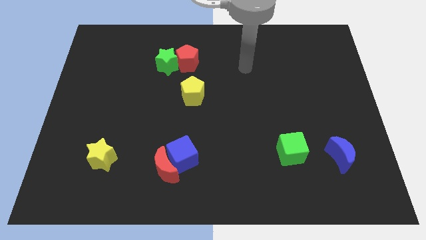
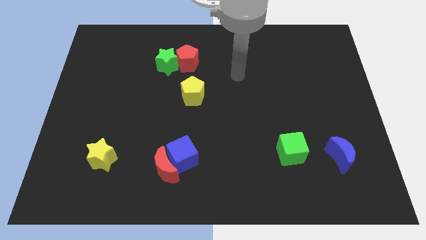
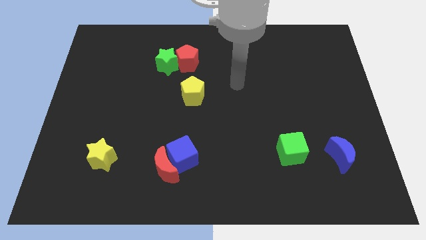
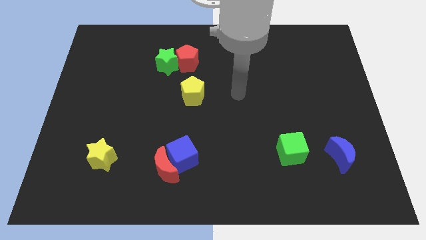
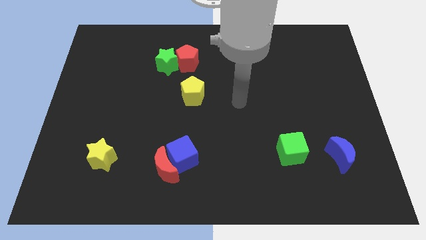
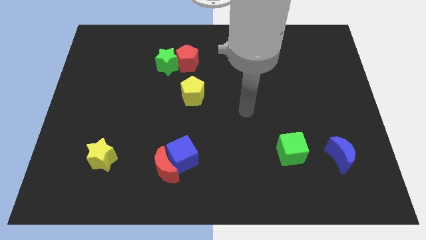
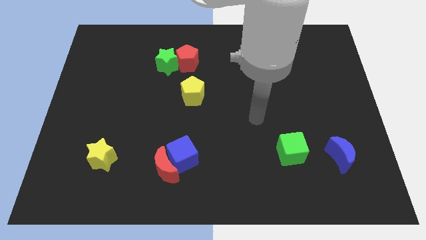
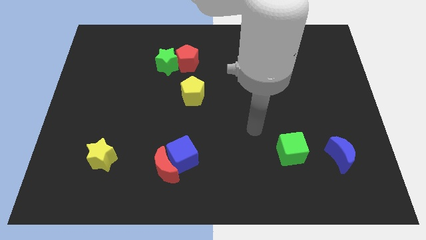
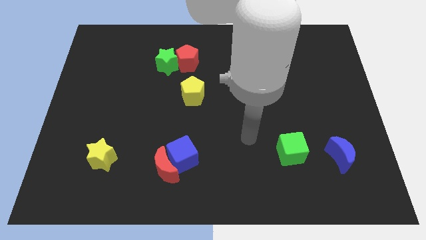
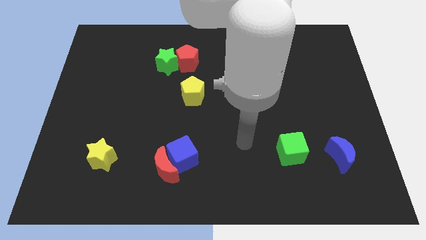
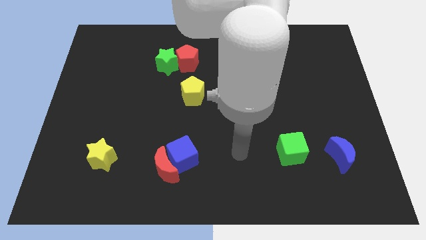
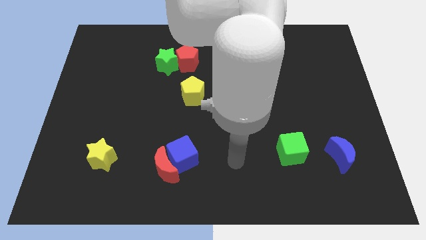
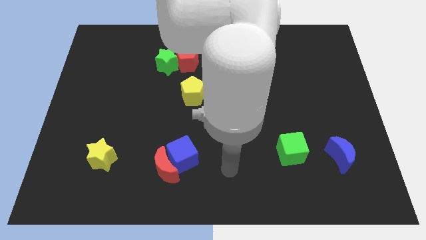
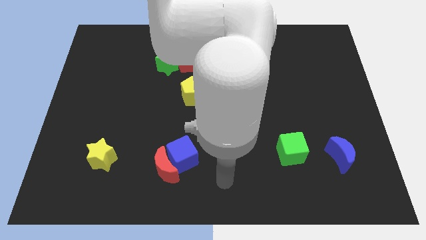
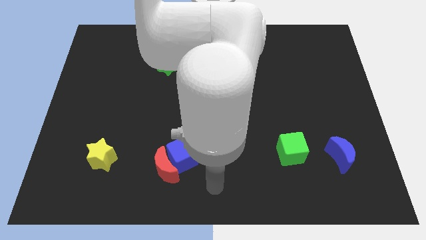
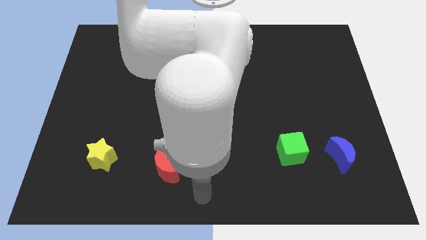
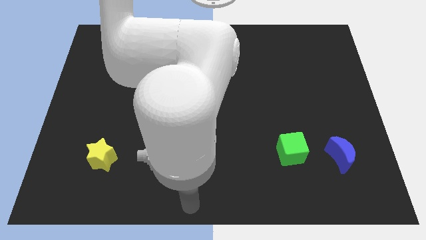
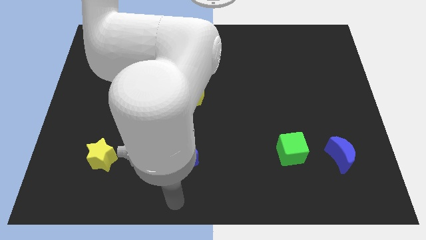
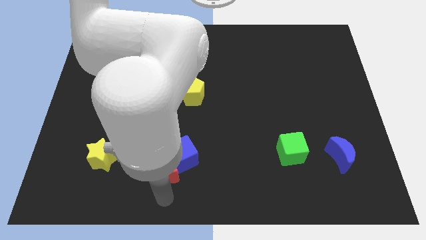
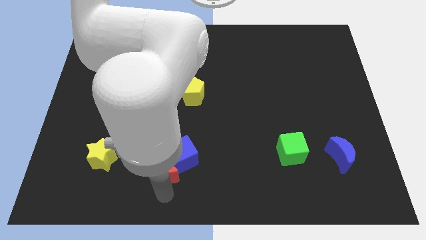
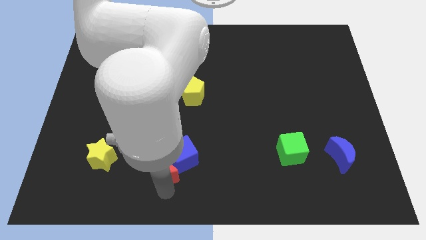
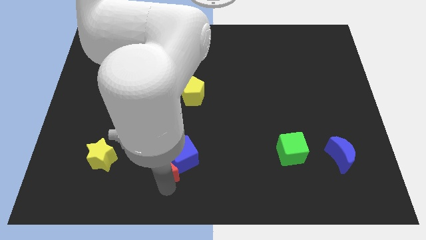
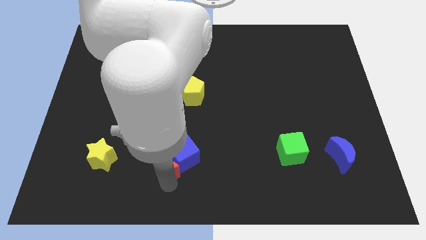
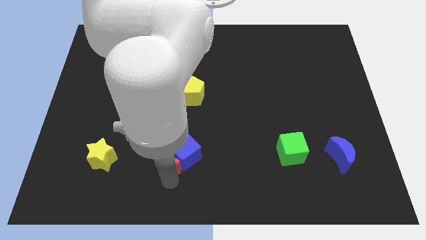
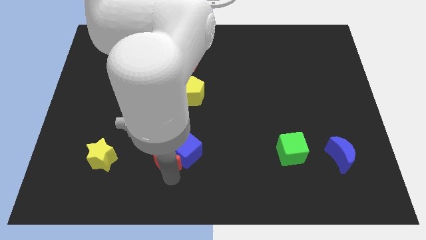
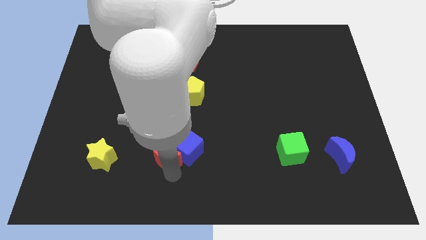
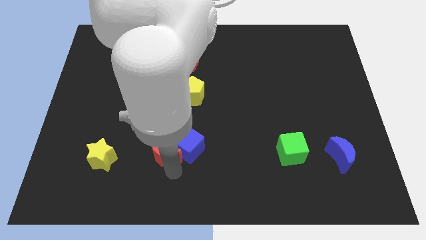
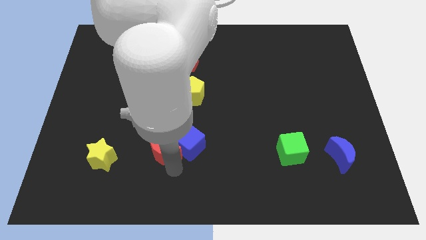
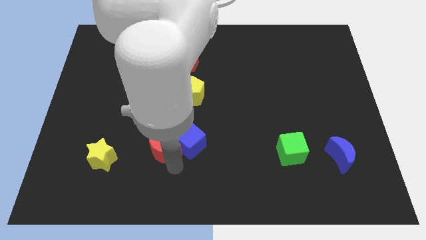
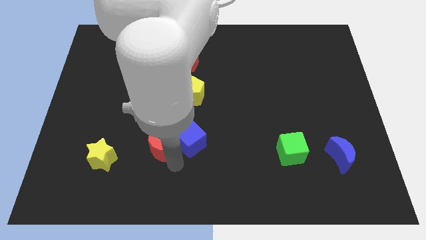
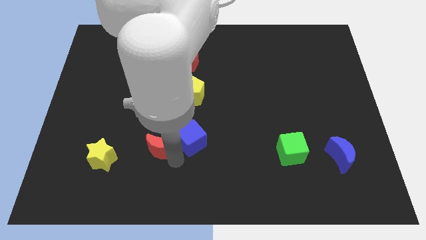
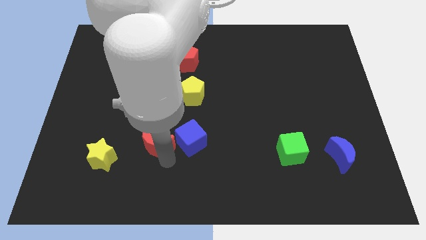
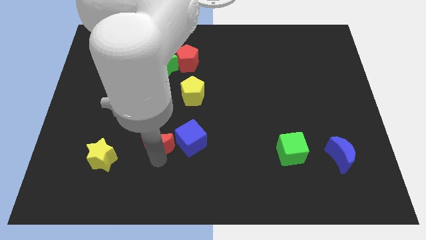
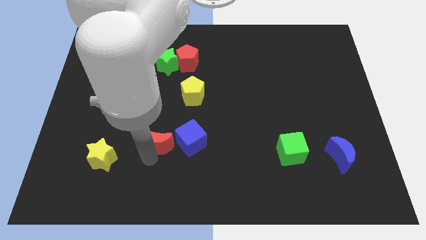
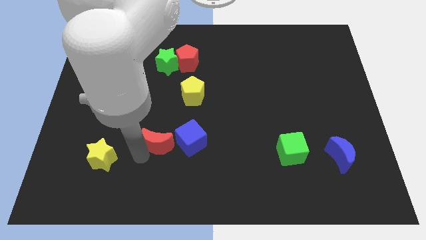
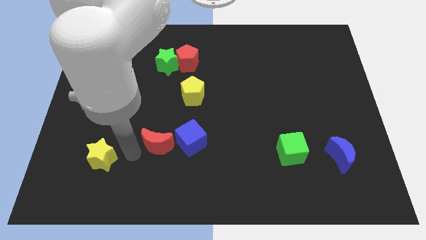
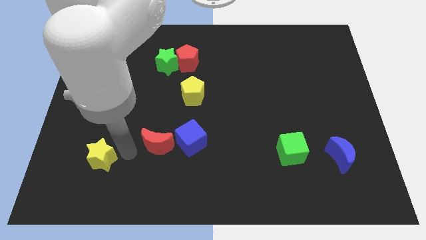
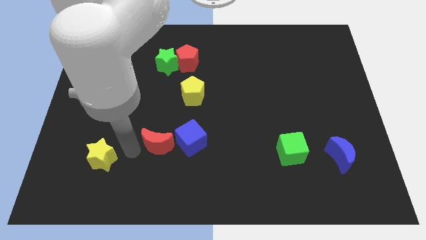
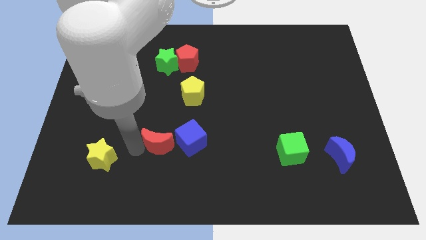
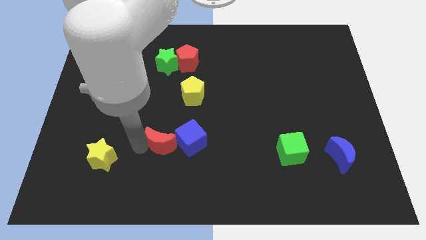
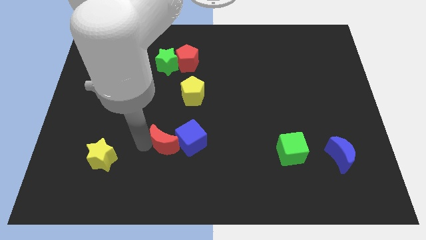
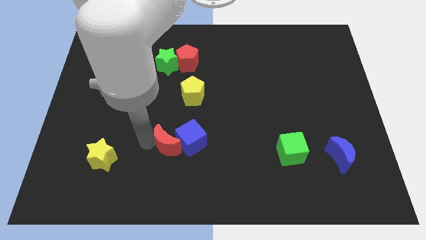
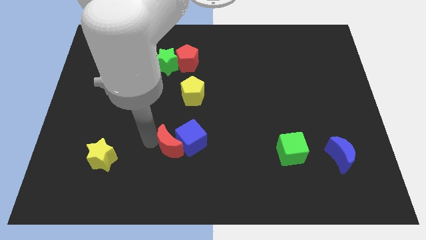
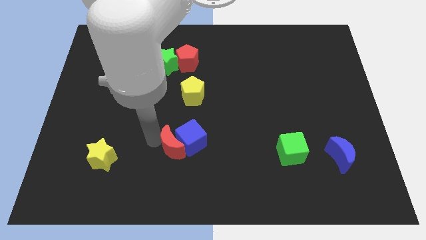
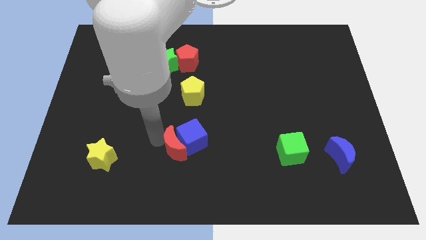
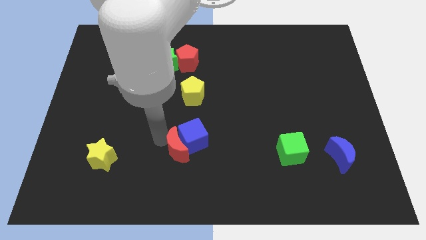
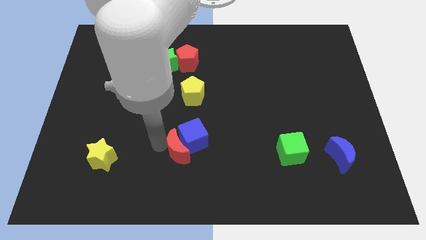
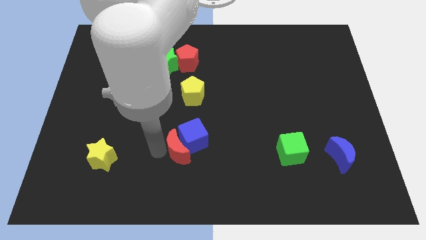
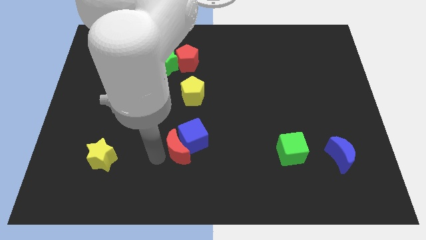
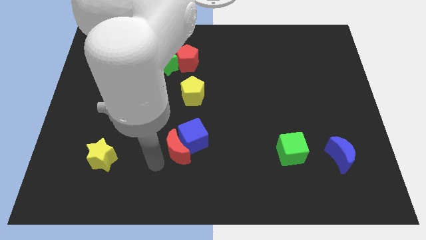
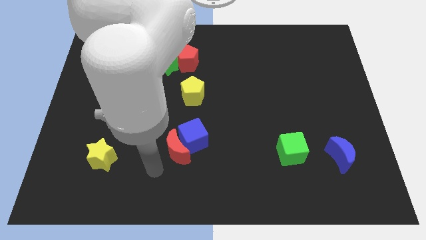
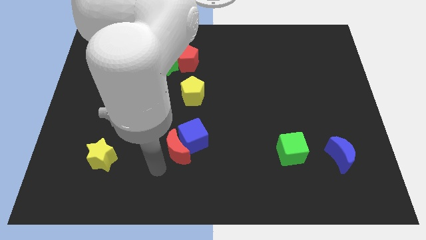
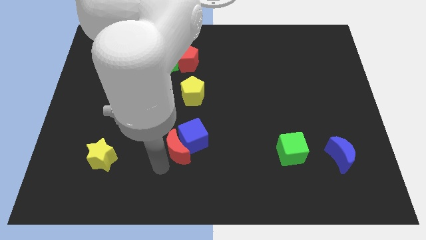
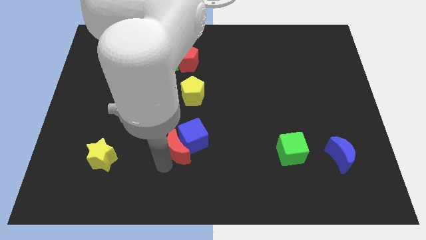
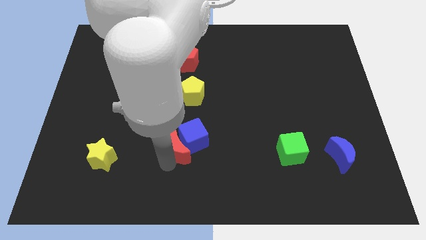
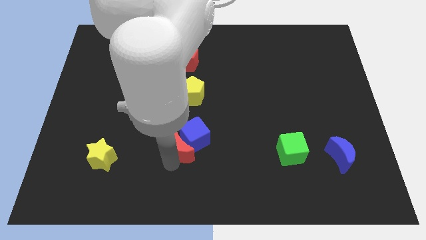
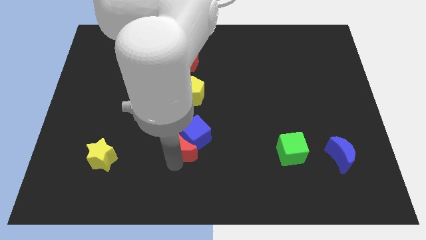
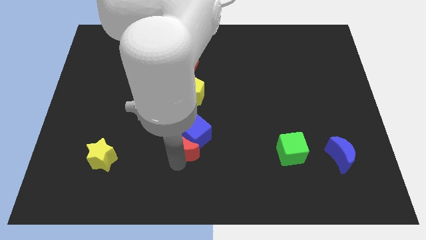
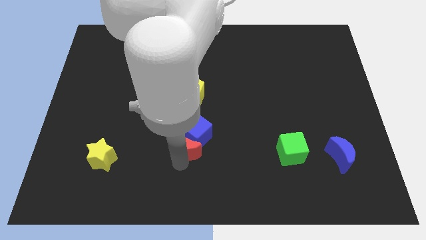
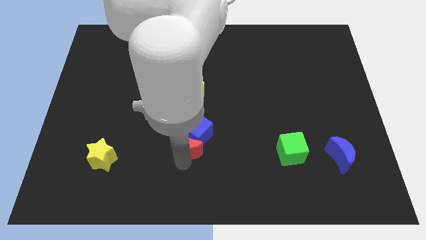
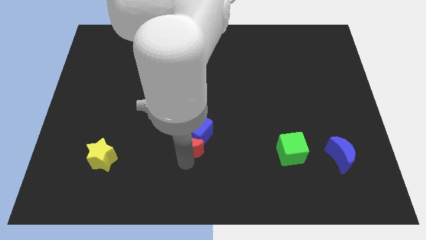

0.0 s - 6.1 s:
move the red moon upwards and right diagonally a little bit

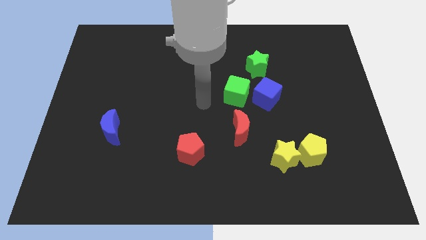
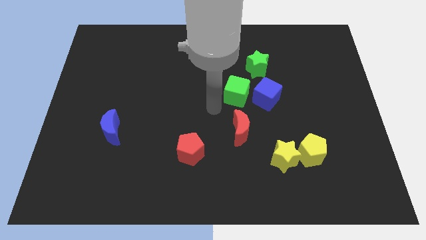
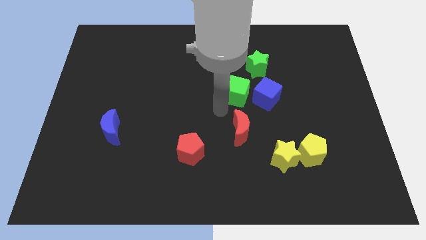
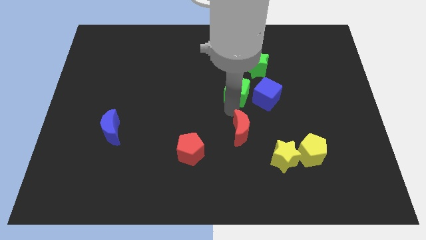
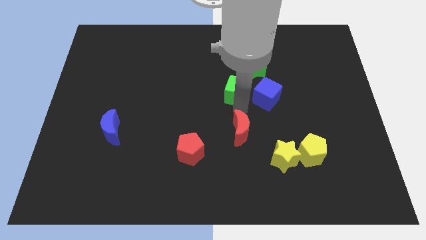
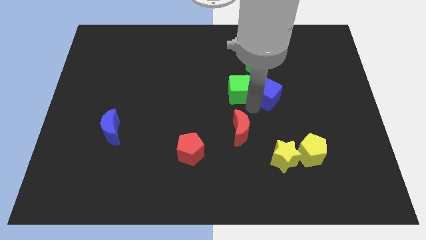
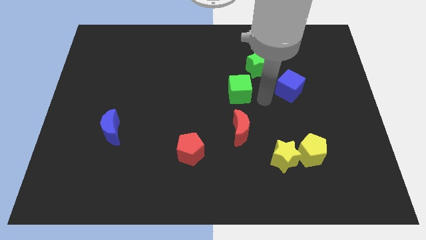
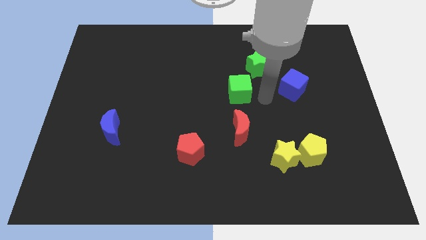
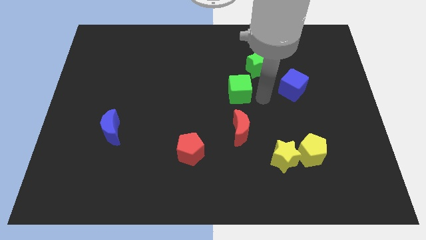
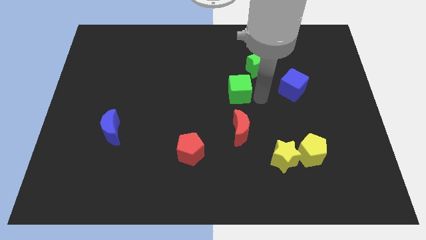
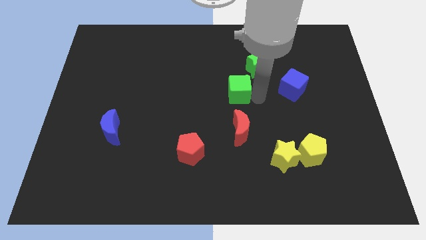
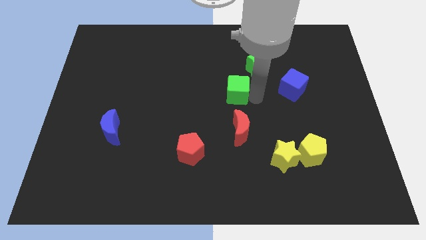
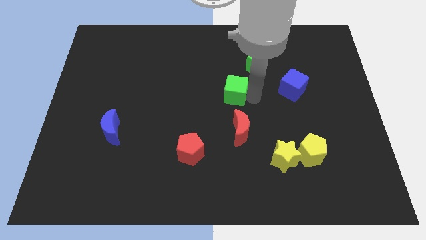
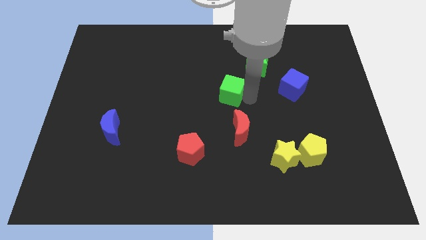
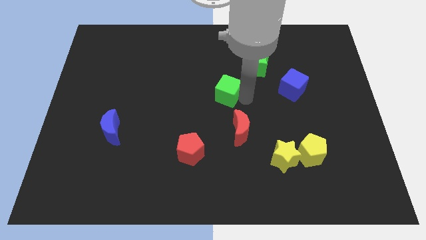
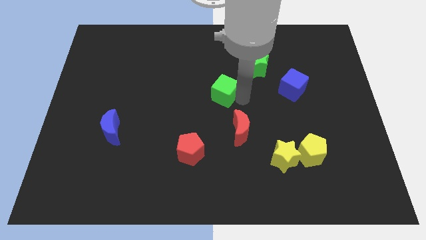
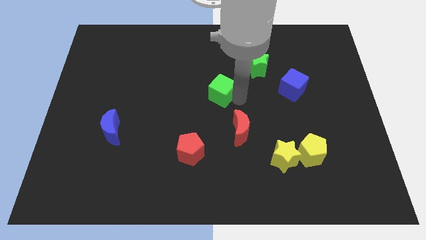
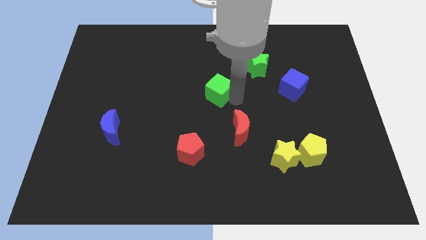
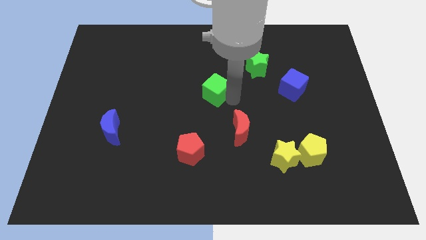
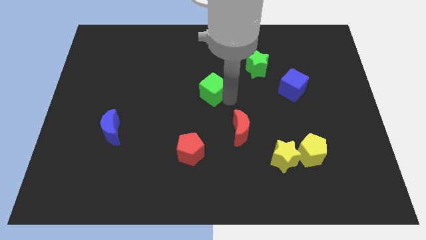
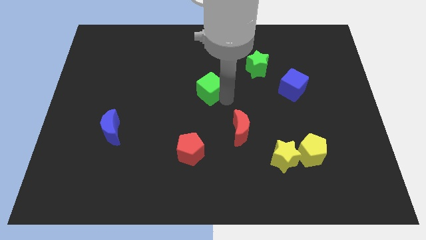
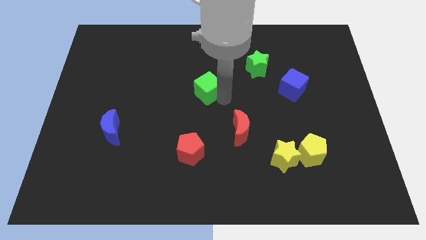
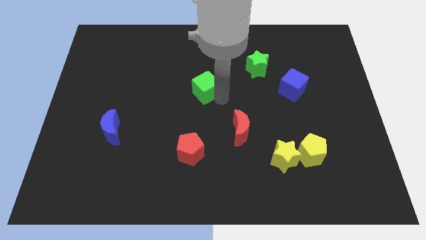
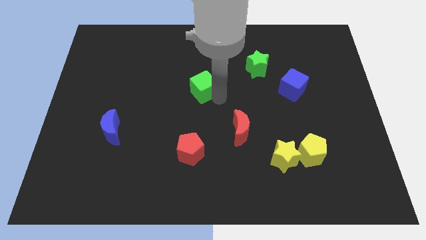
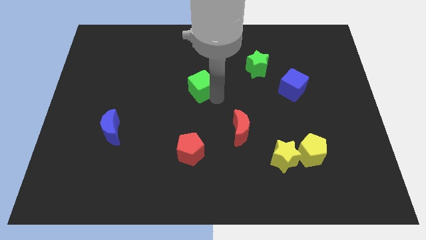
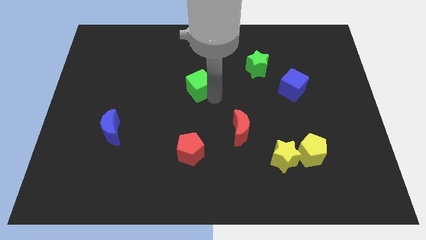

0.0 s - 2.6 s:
slightly move the green cube upwards and then to the left
